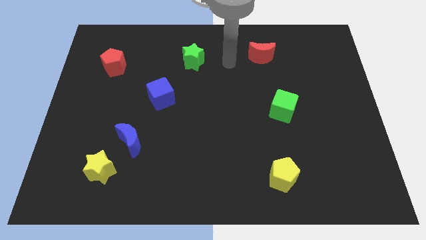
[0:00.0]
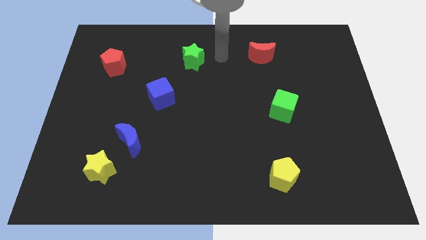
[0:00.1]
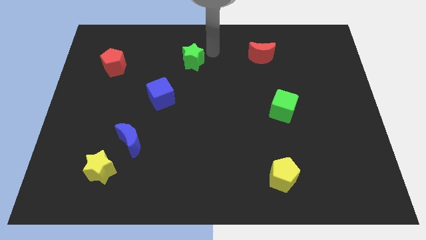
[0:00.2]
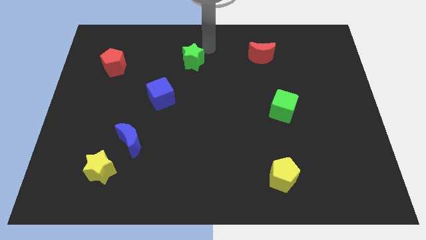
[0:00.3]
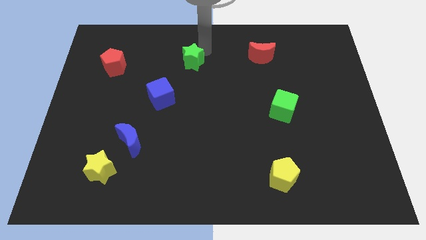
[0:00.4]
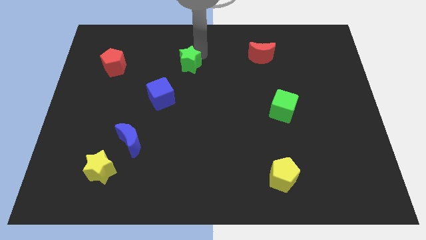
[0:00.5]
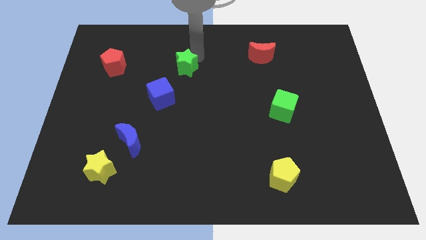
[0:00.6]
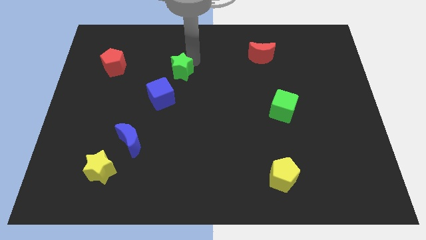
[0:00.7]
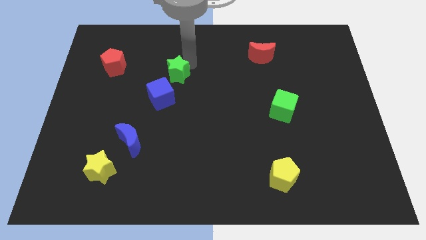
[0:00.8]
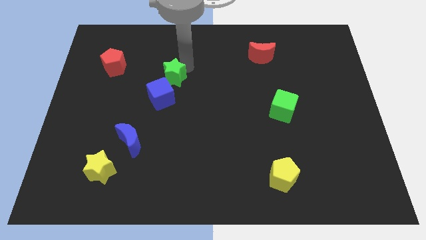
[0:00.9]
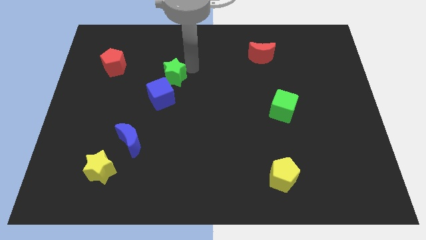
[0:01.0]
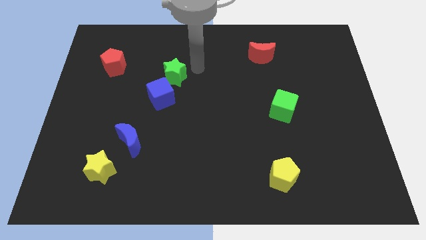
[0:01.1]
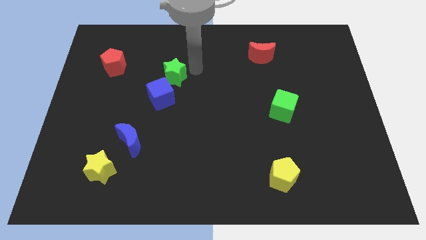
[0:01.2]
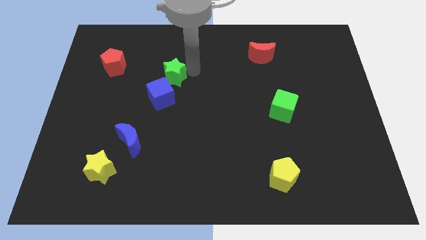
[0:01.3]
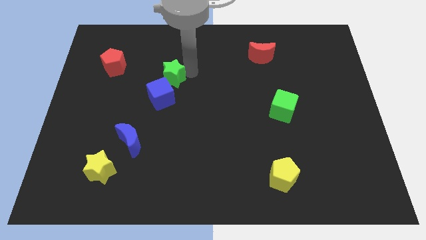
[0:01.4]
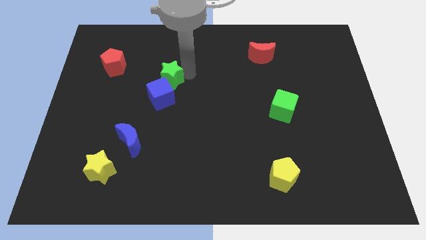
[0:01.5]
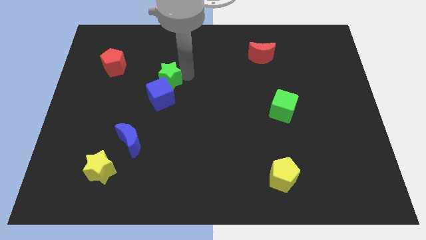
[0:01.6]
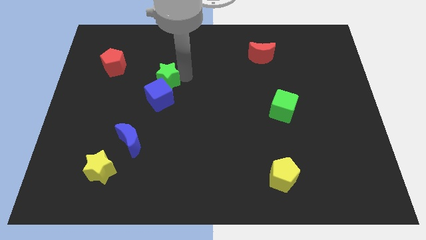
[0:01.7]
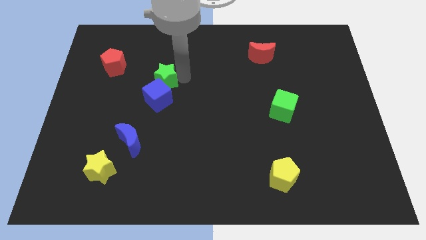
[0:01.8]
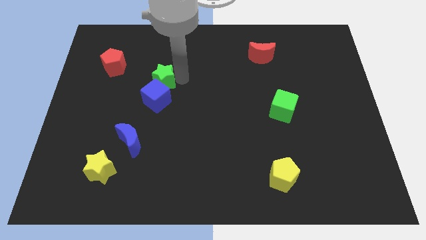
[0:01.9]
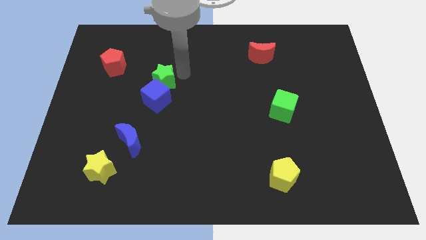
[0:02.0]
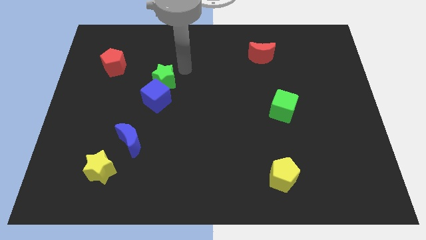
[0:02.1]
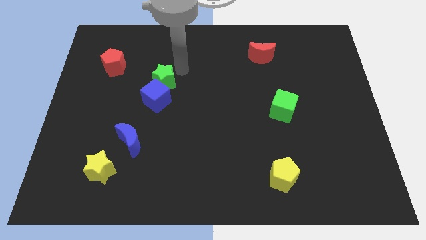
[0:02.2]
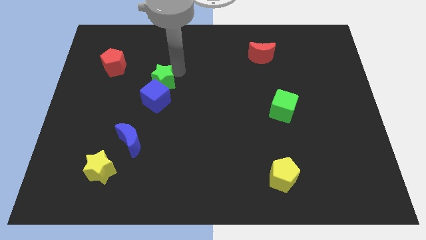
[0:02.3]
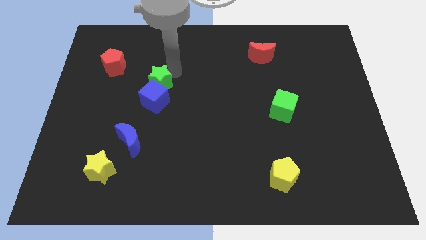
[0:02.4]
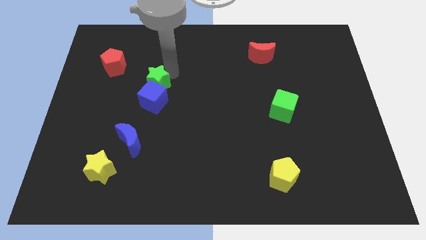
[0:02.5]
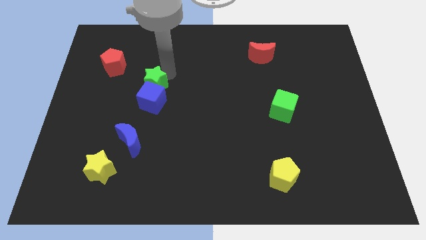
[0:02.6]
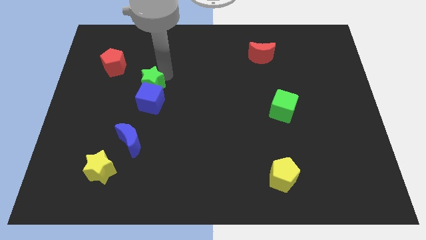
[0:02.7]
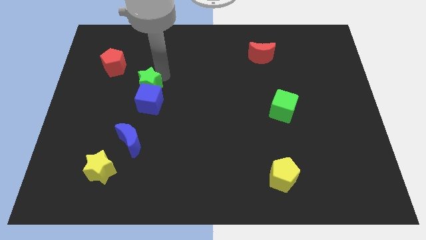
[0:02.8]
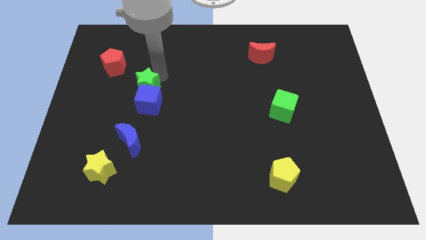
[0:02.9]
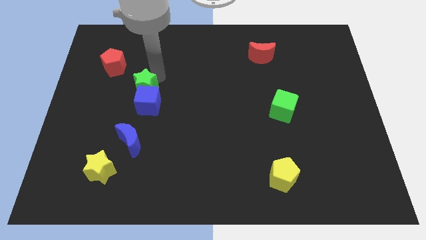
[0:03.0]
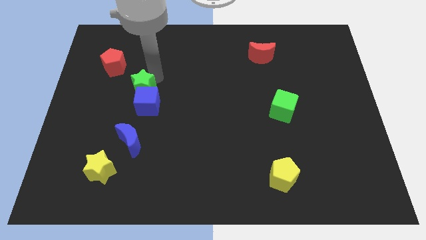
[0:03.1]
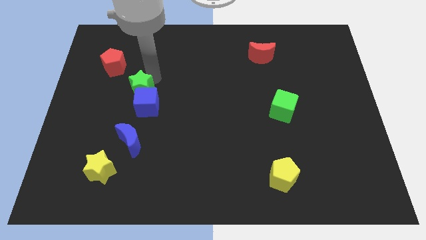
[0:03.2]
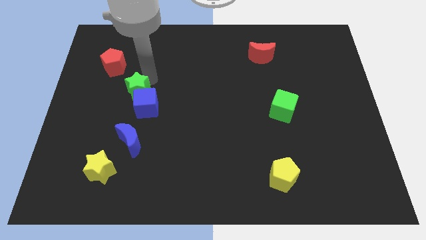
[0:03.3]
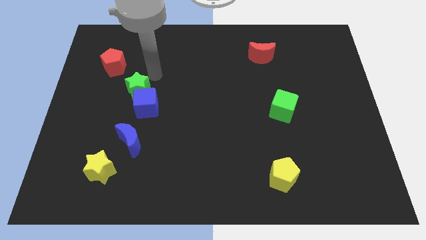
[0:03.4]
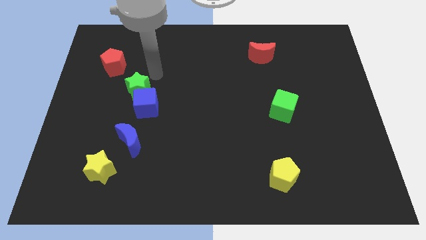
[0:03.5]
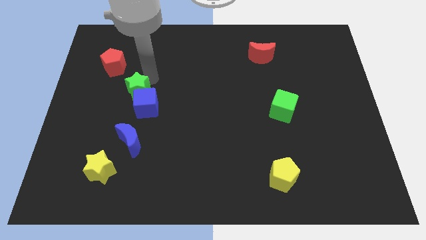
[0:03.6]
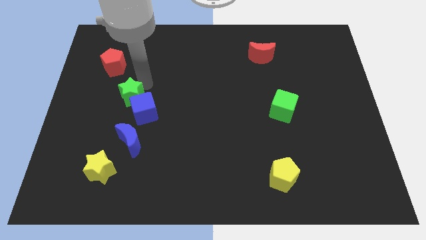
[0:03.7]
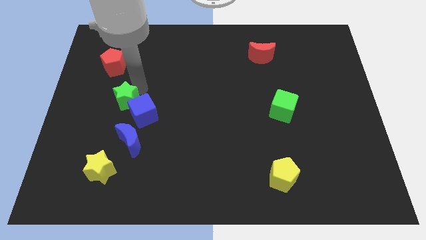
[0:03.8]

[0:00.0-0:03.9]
push the green star downwards and to the left diagonally

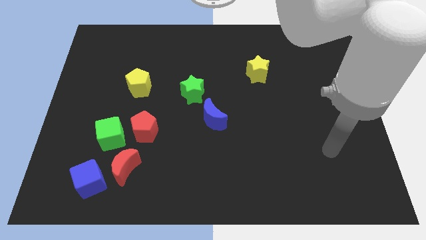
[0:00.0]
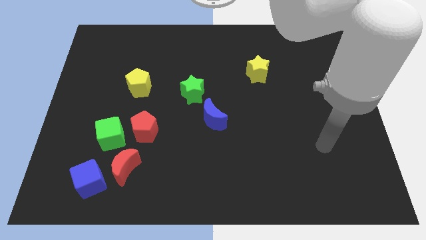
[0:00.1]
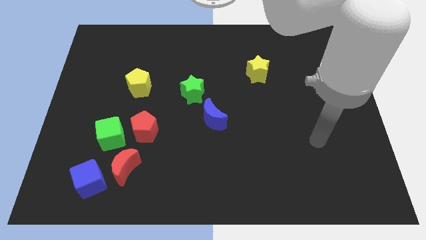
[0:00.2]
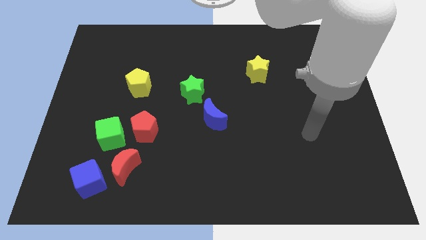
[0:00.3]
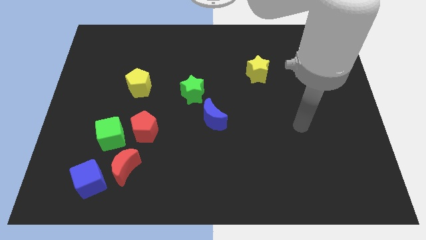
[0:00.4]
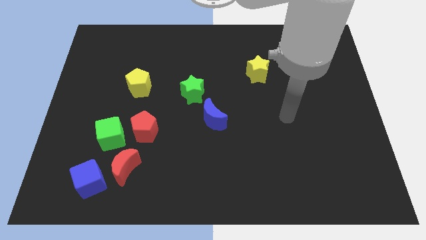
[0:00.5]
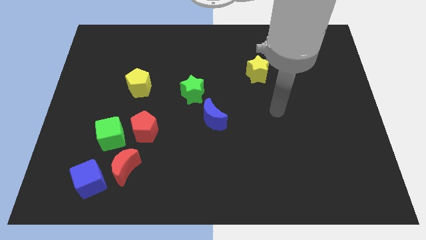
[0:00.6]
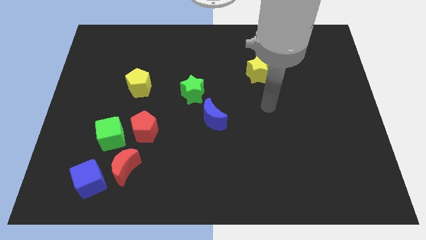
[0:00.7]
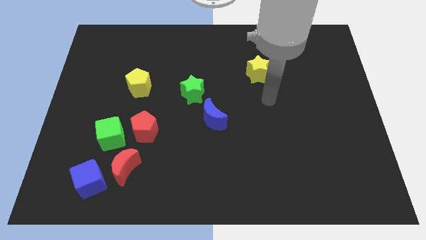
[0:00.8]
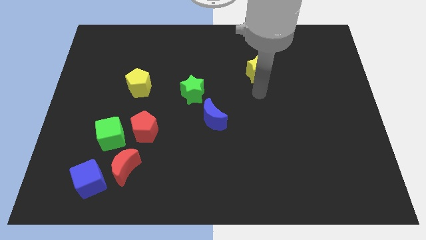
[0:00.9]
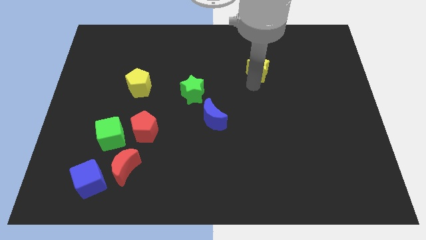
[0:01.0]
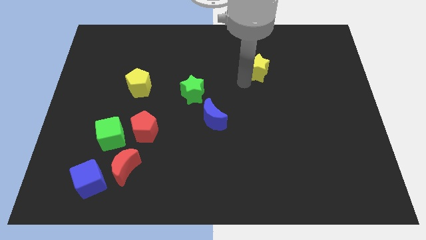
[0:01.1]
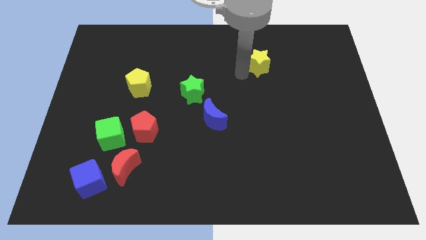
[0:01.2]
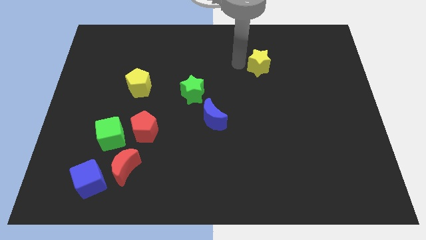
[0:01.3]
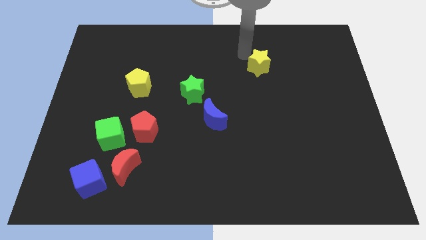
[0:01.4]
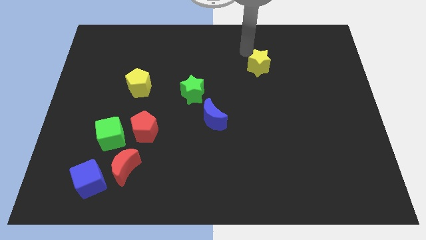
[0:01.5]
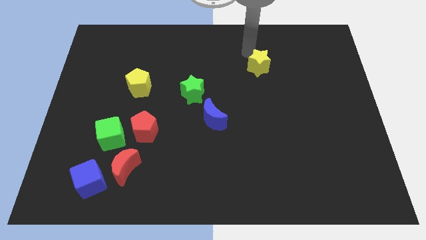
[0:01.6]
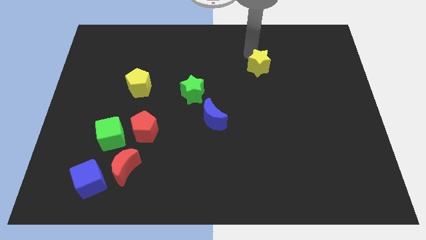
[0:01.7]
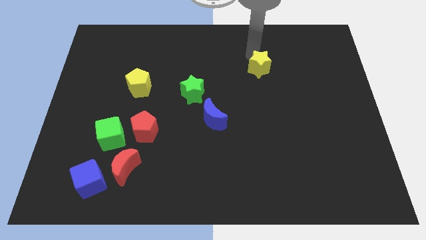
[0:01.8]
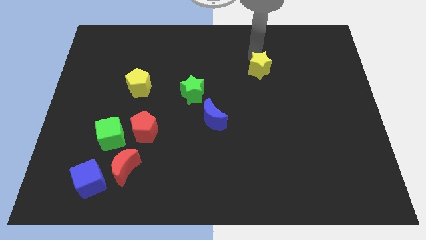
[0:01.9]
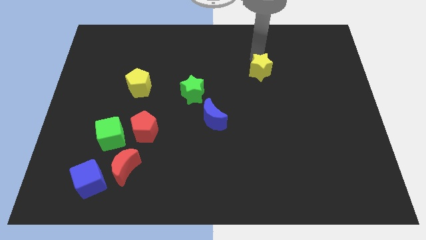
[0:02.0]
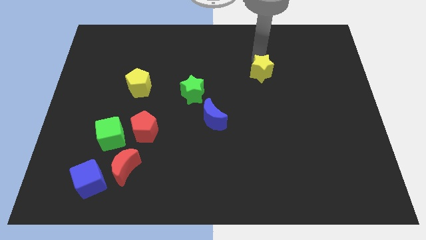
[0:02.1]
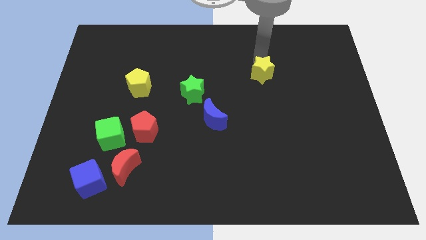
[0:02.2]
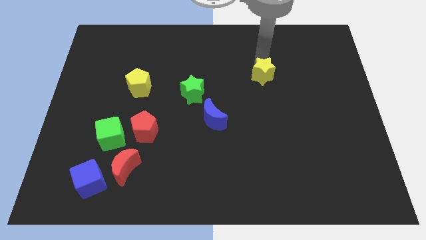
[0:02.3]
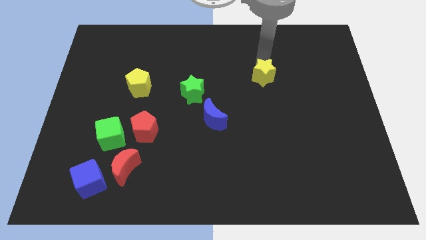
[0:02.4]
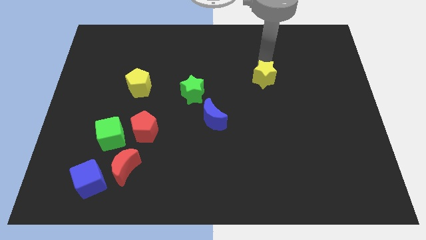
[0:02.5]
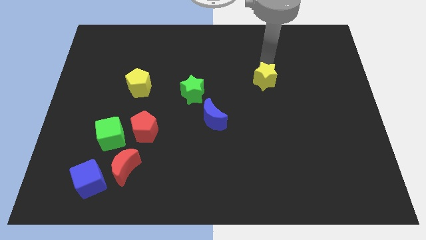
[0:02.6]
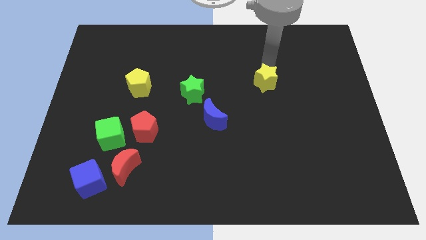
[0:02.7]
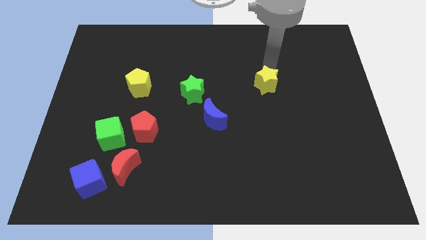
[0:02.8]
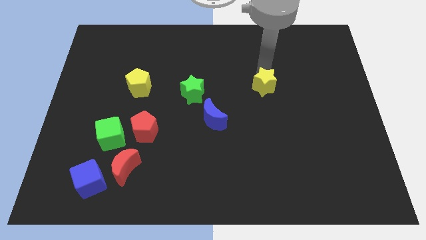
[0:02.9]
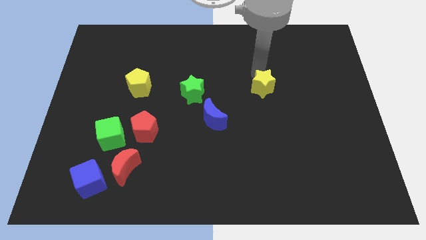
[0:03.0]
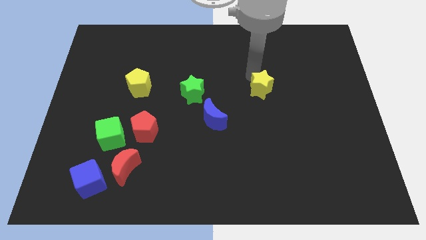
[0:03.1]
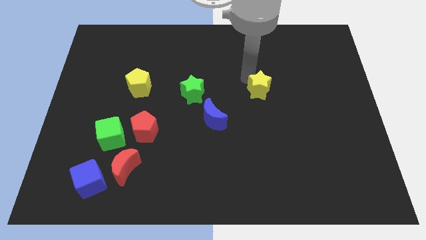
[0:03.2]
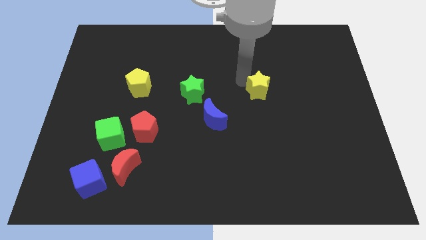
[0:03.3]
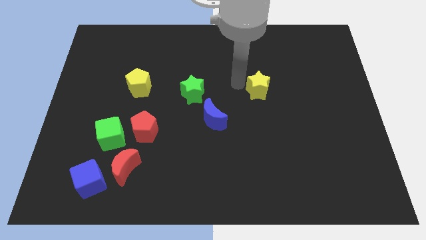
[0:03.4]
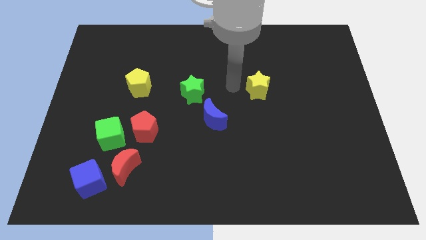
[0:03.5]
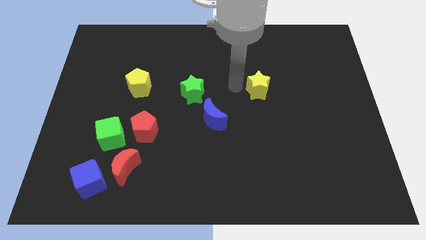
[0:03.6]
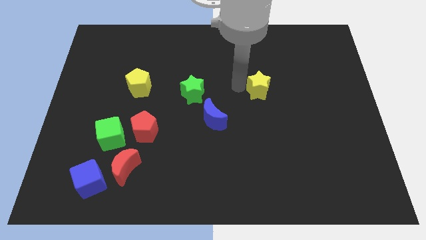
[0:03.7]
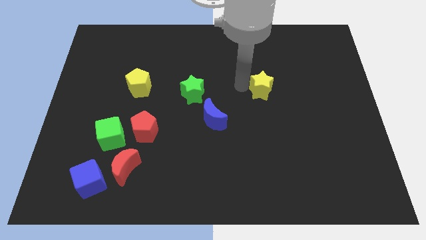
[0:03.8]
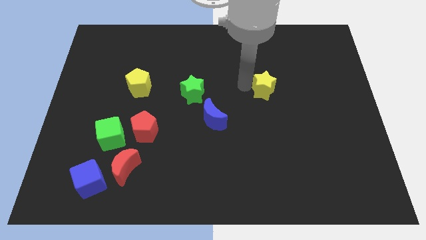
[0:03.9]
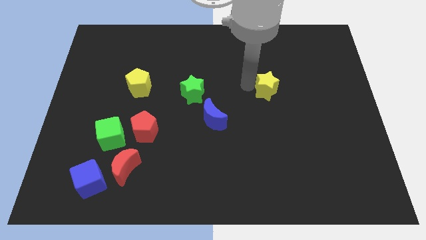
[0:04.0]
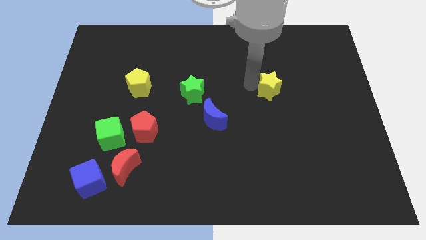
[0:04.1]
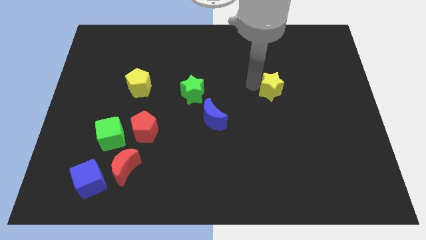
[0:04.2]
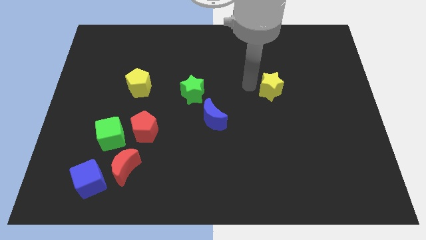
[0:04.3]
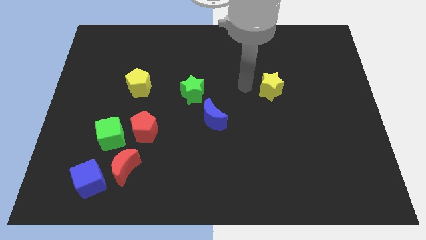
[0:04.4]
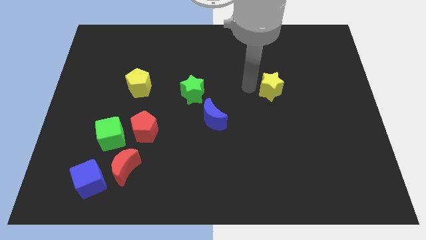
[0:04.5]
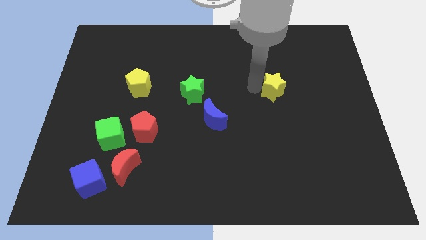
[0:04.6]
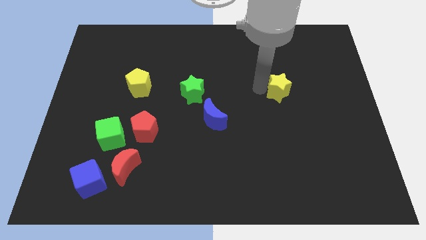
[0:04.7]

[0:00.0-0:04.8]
push the yellow star slightly down and to the right diagonally
